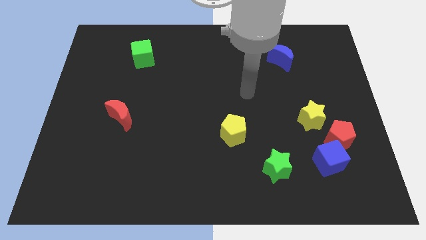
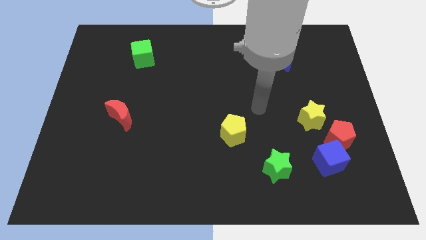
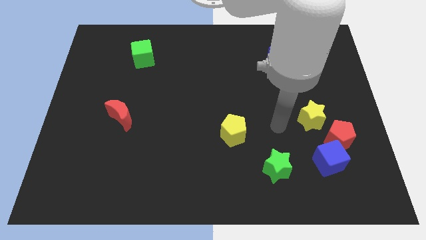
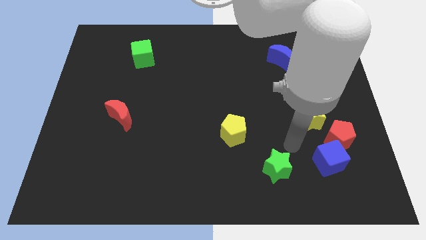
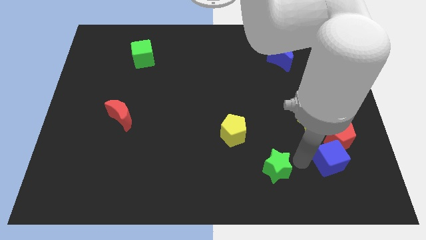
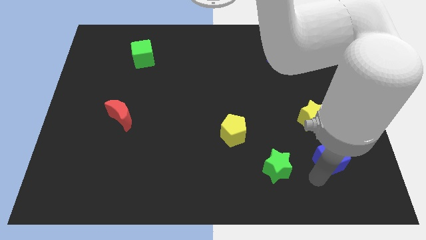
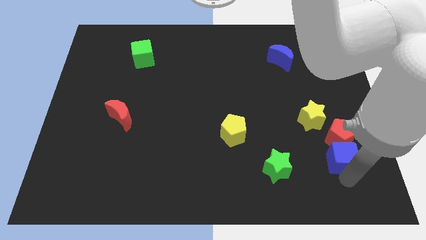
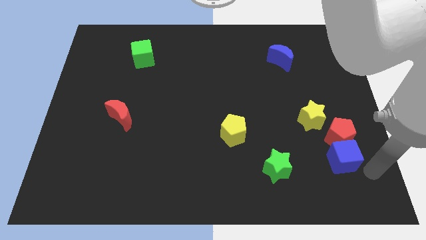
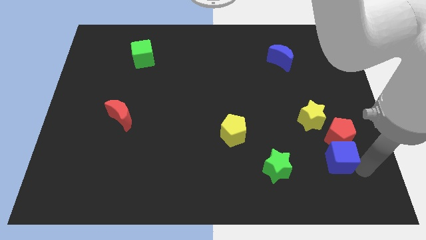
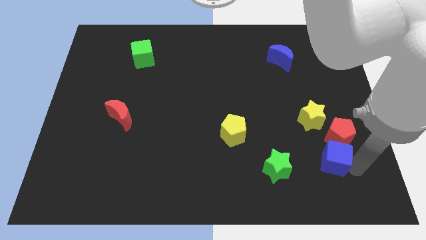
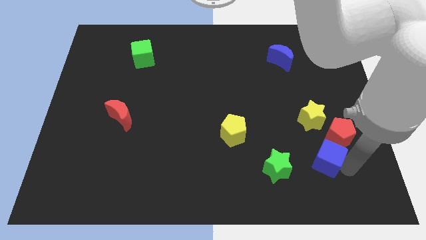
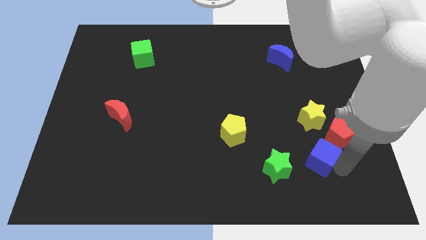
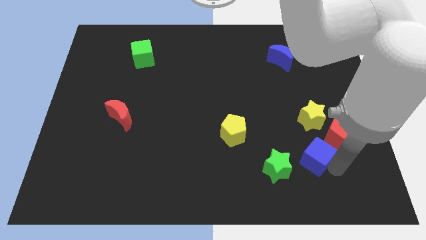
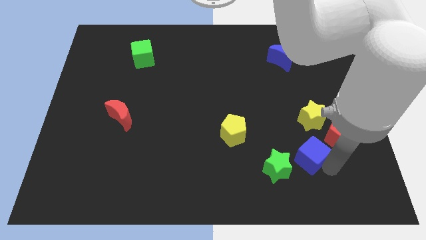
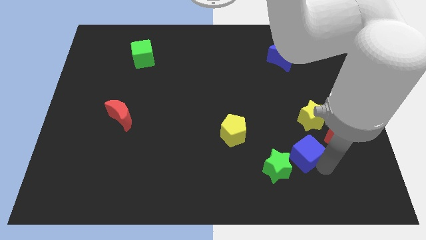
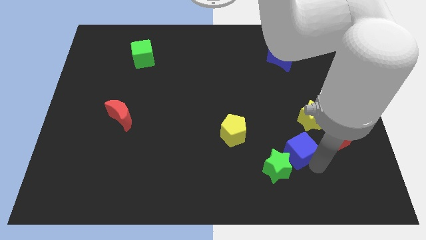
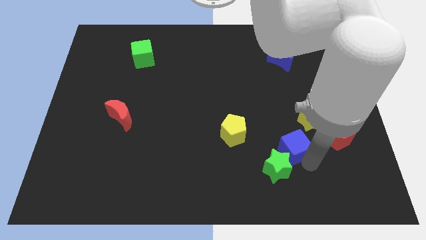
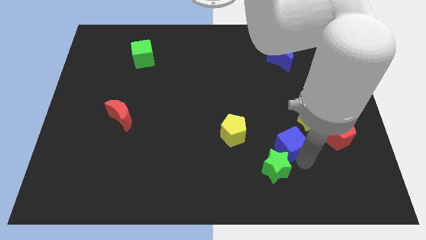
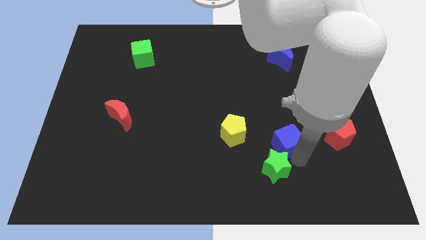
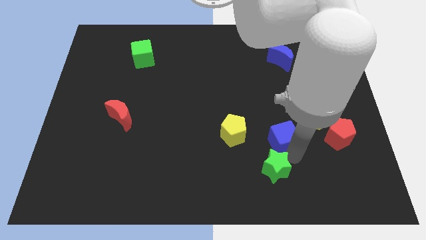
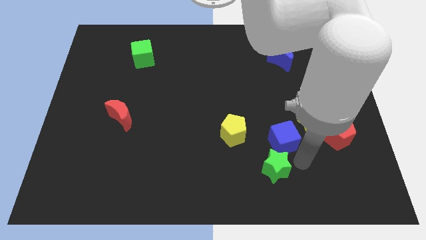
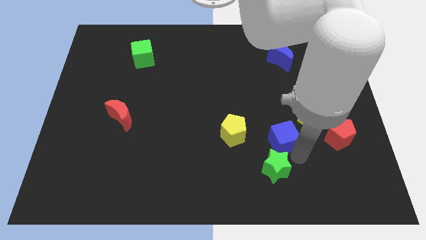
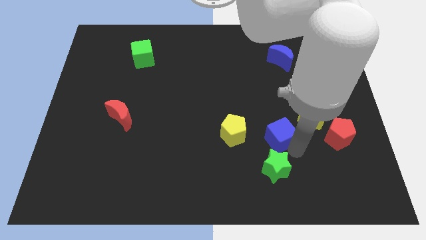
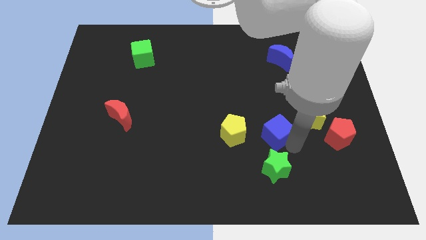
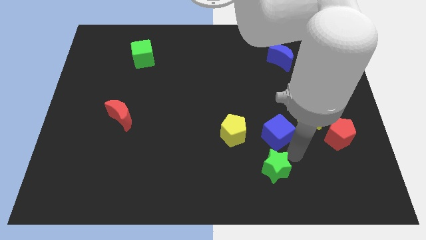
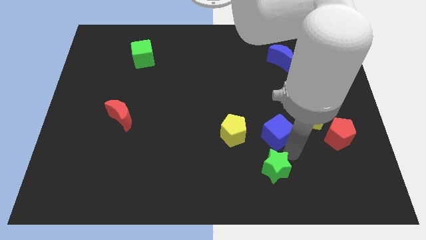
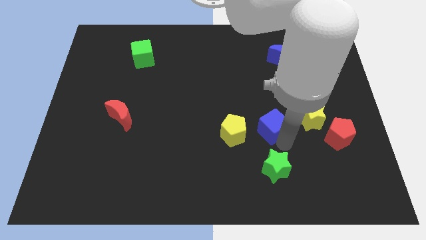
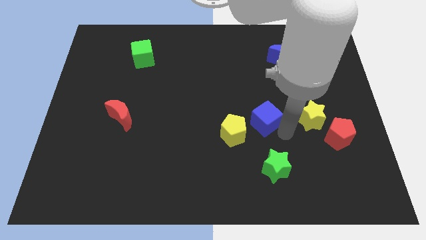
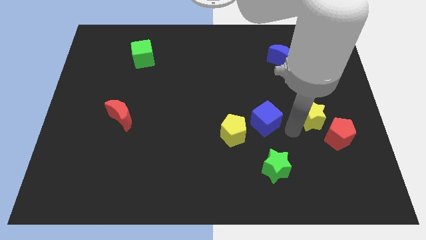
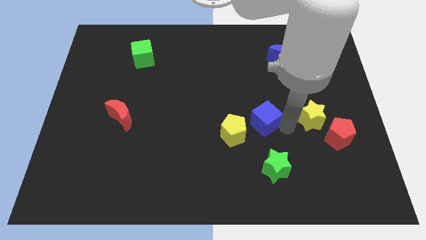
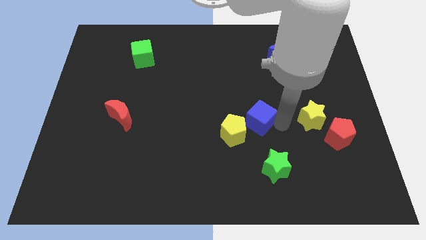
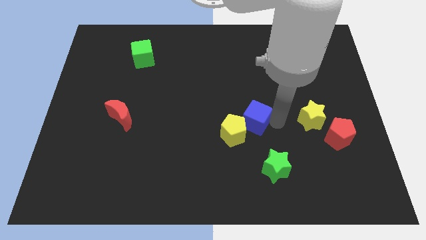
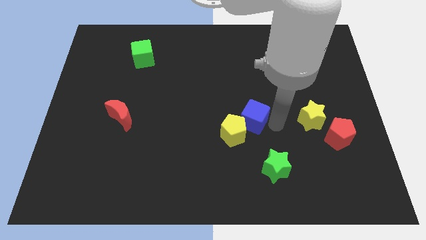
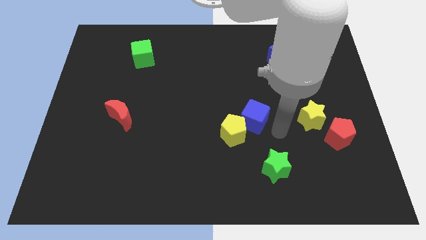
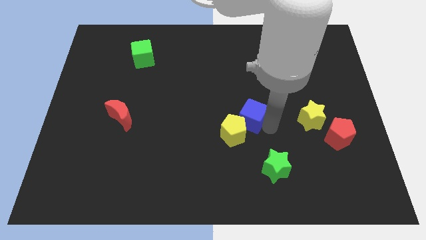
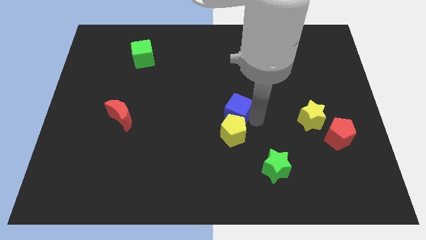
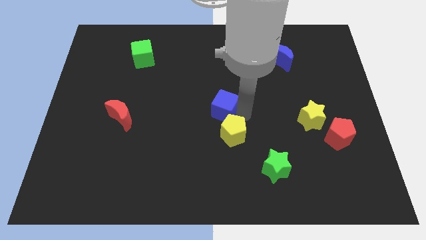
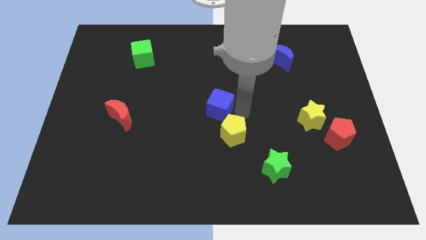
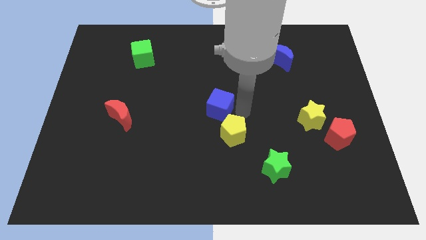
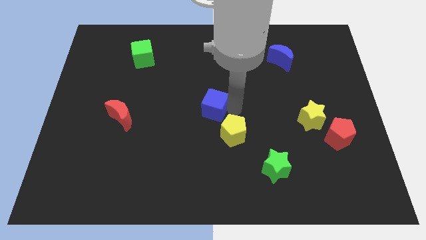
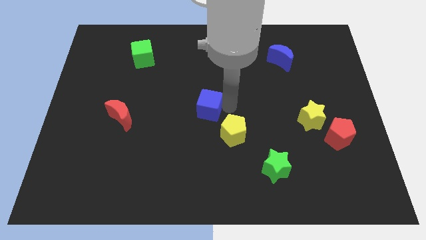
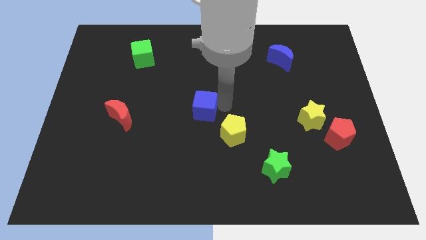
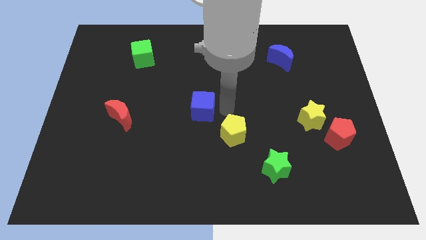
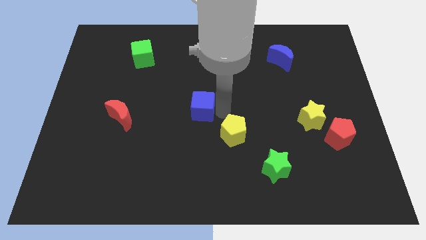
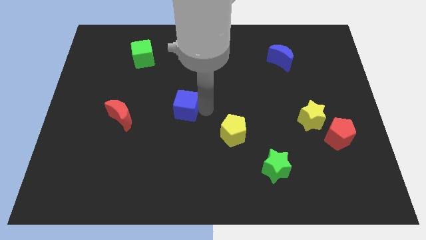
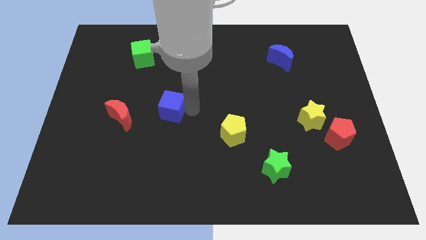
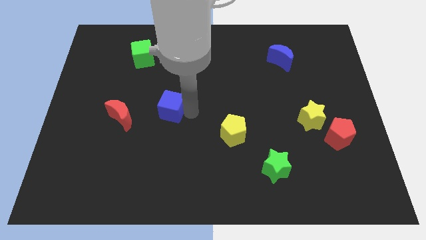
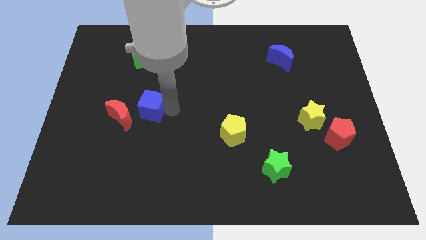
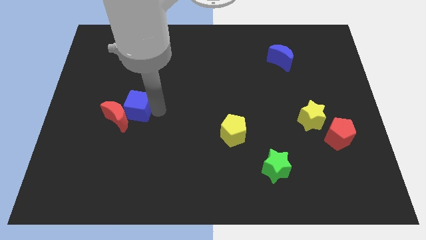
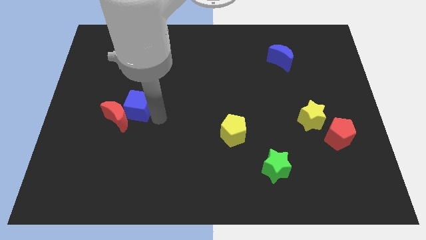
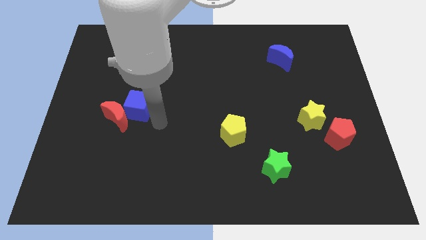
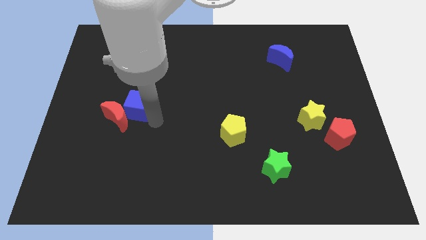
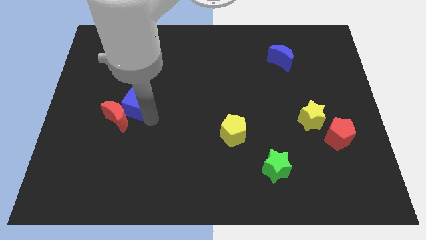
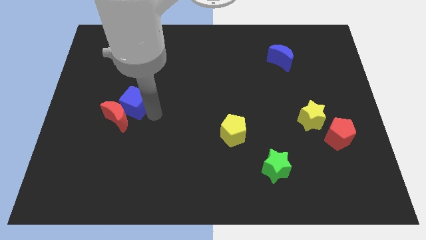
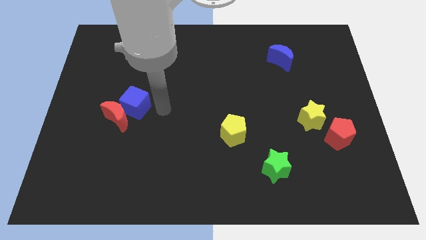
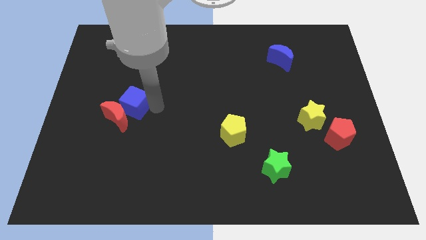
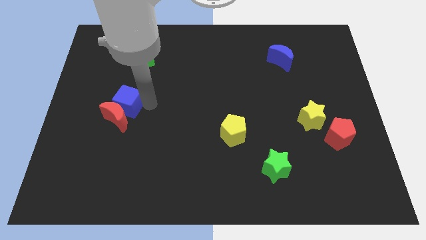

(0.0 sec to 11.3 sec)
put the blue cube to the top left side of the red moon

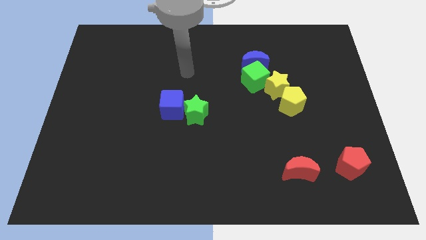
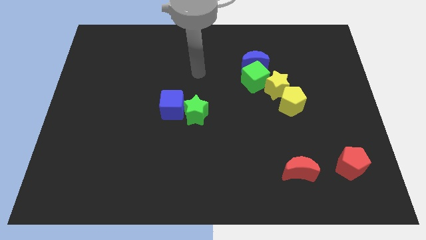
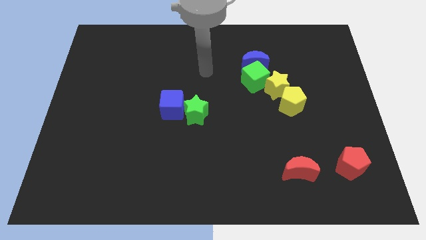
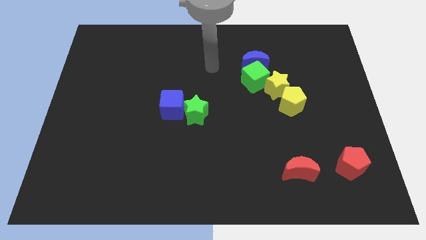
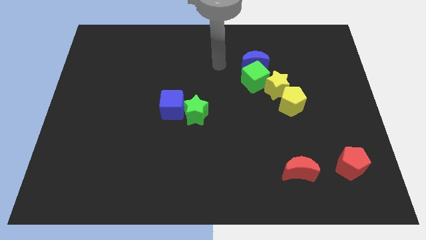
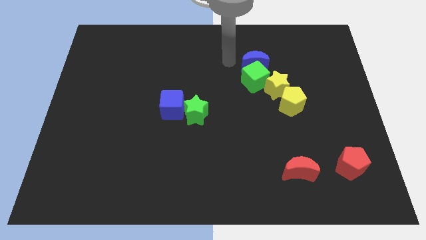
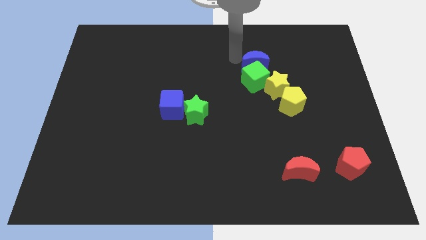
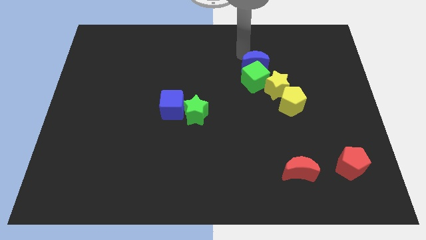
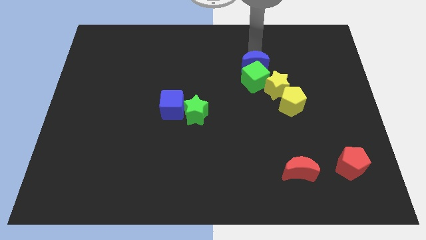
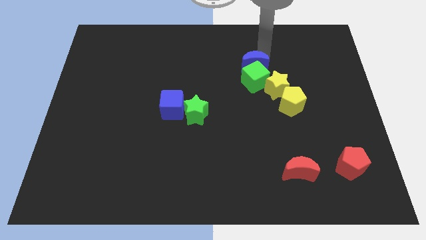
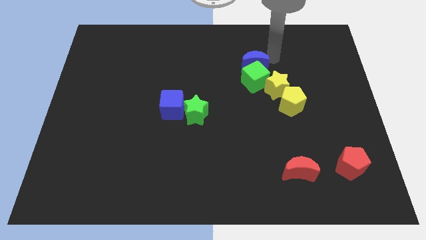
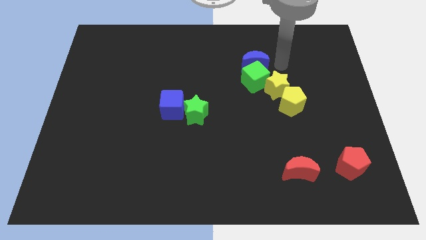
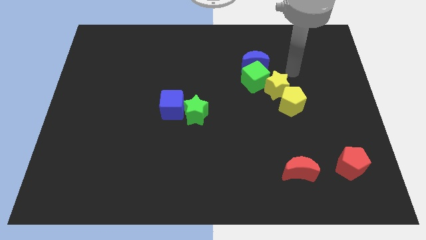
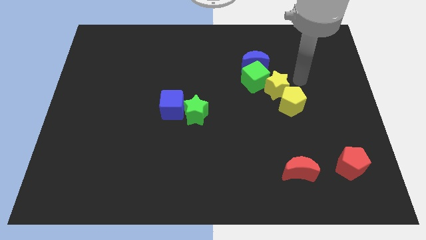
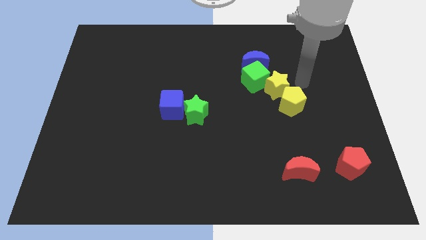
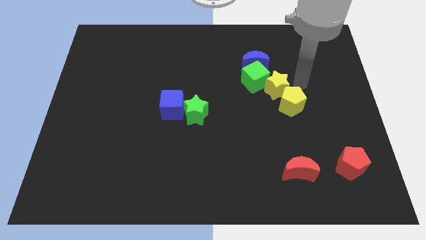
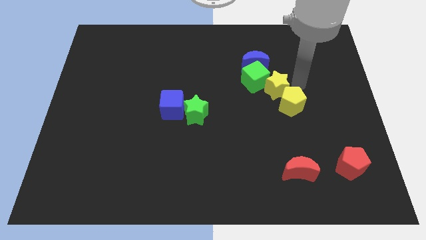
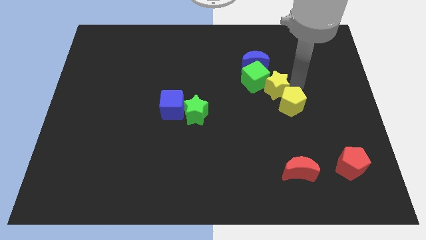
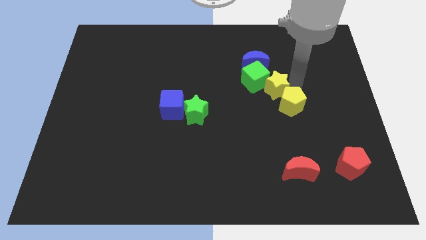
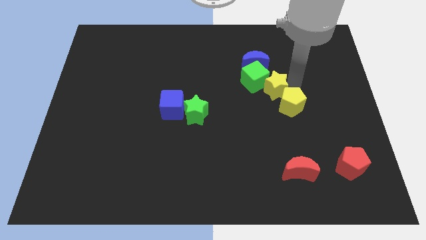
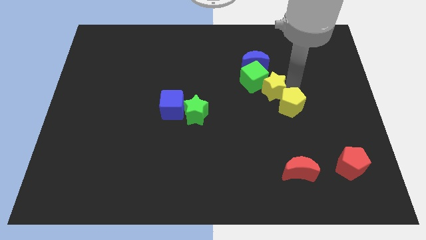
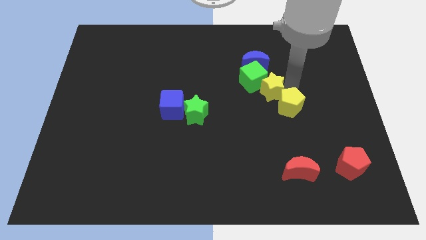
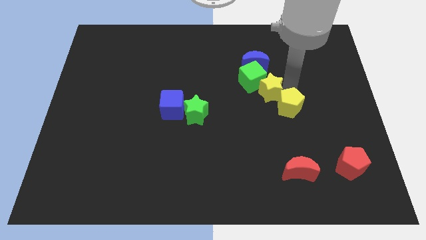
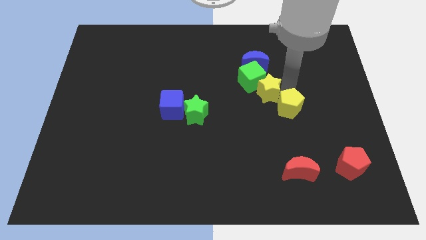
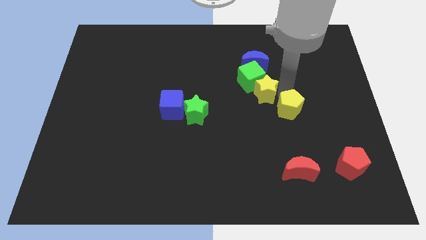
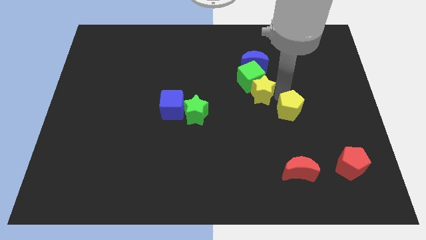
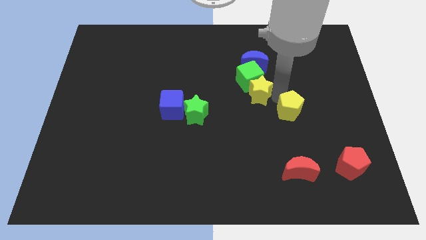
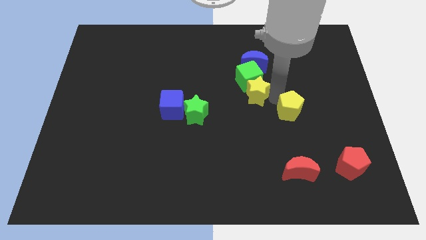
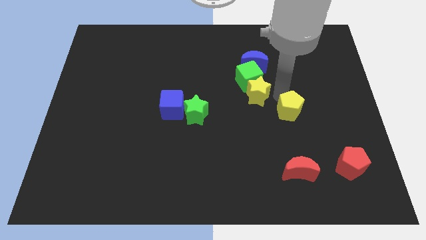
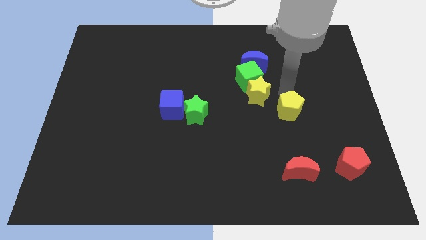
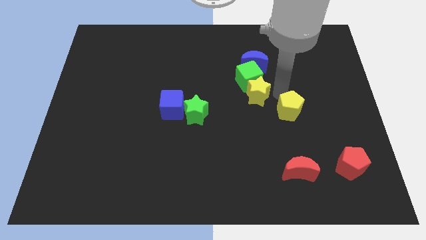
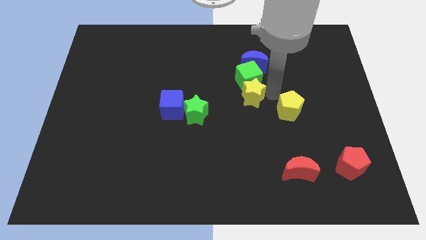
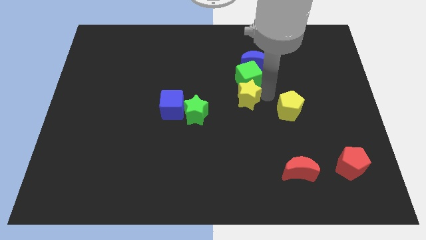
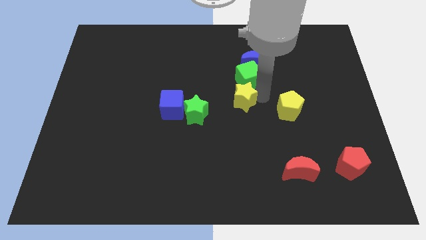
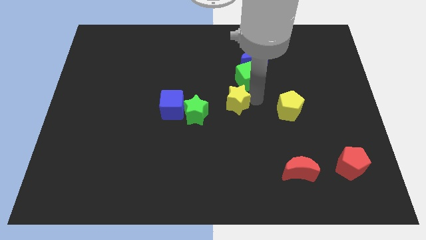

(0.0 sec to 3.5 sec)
push the yellow star diagonally up and to the right of the green star
